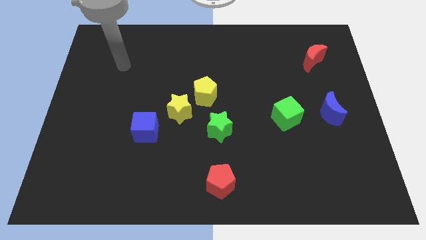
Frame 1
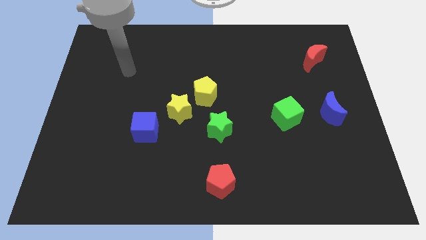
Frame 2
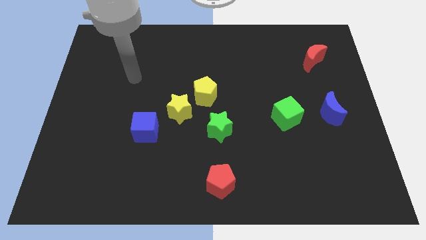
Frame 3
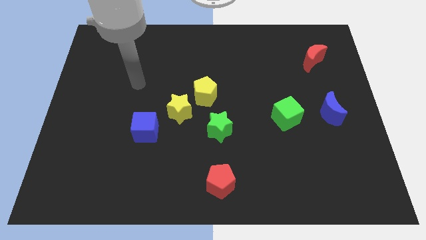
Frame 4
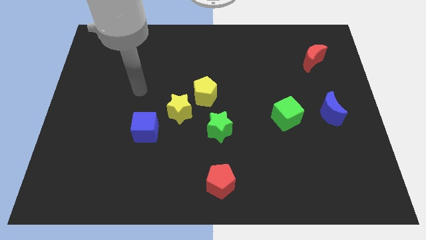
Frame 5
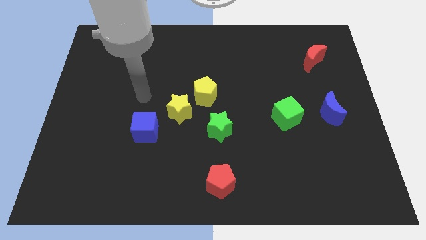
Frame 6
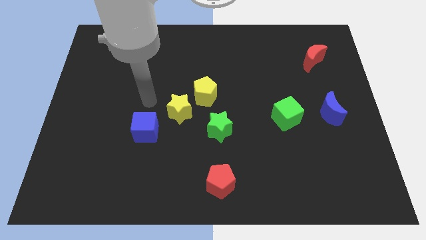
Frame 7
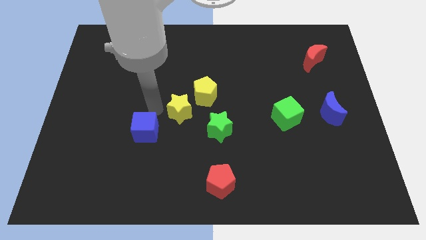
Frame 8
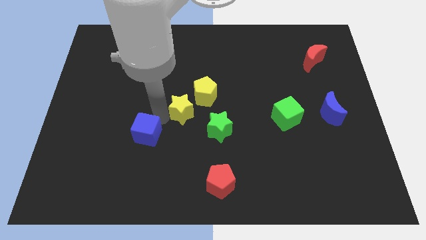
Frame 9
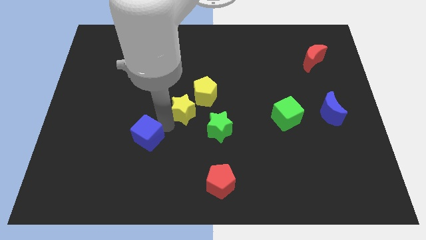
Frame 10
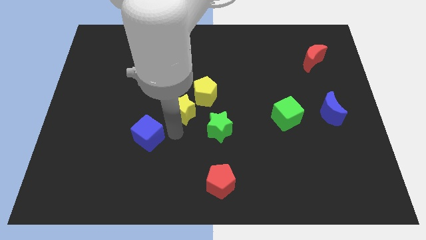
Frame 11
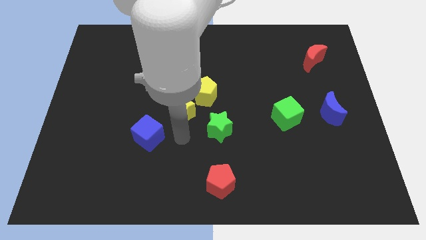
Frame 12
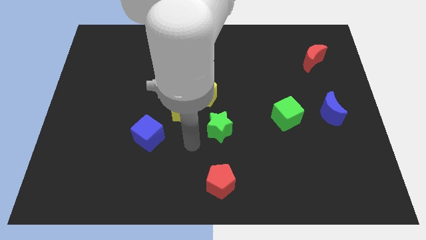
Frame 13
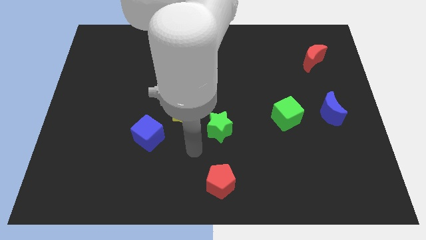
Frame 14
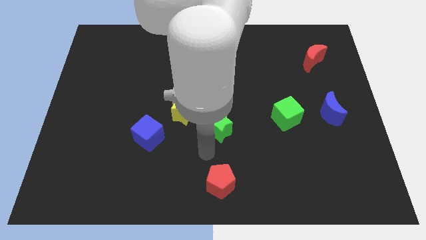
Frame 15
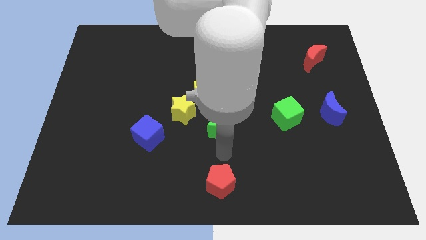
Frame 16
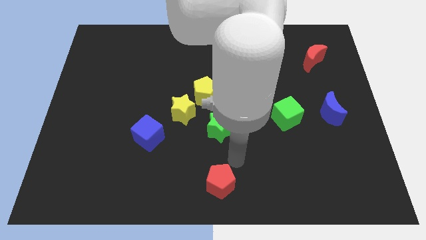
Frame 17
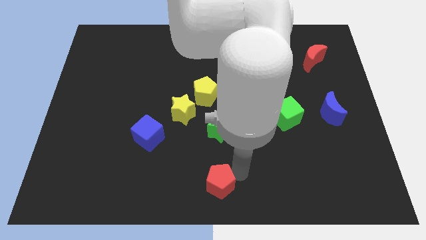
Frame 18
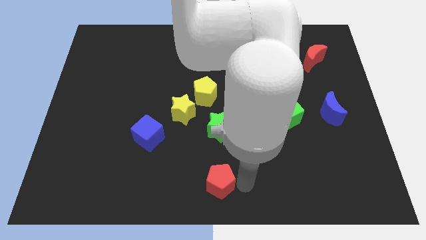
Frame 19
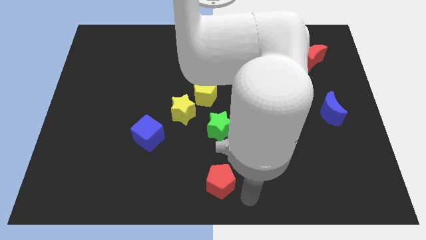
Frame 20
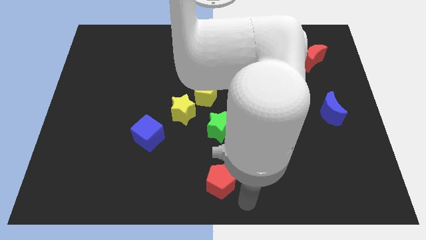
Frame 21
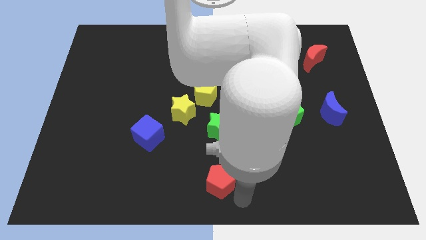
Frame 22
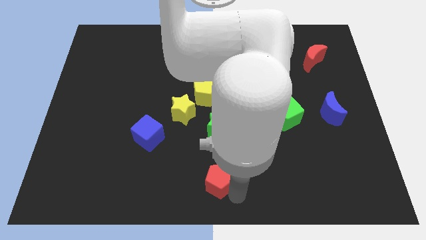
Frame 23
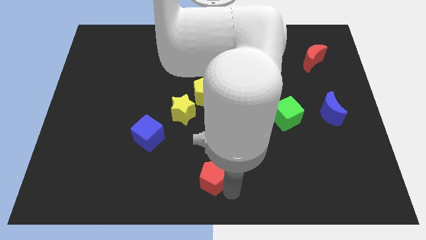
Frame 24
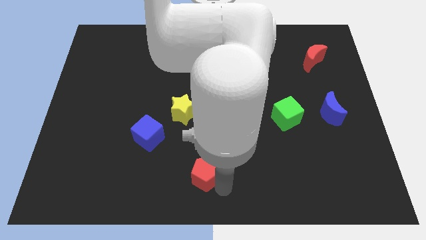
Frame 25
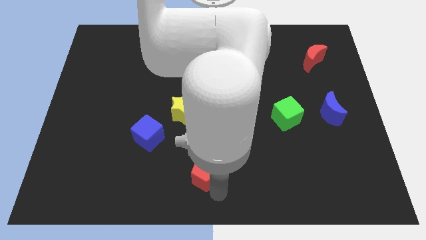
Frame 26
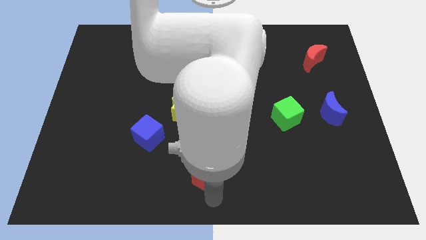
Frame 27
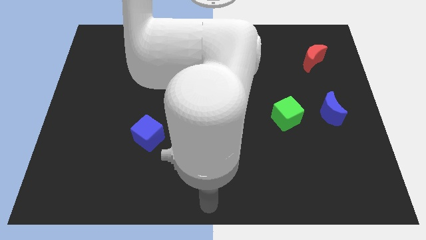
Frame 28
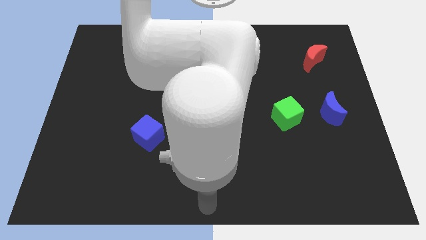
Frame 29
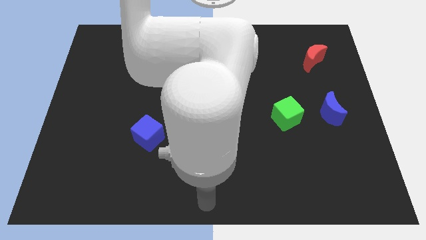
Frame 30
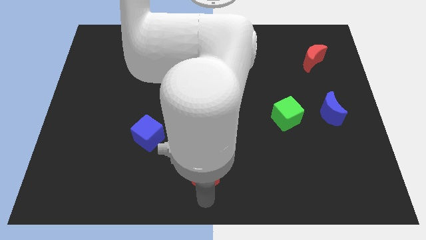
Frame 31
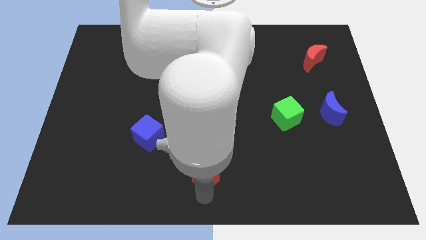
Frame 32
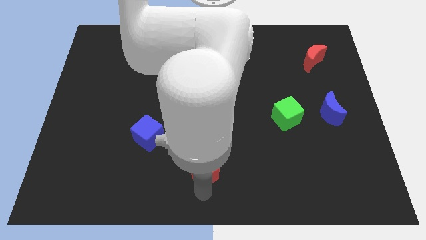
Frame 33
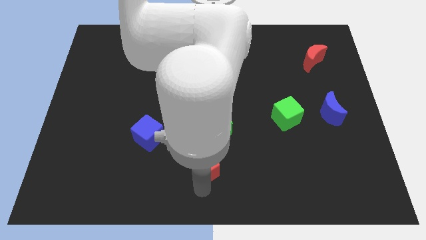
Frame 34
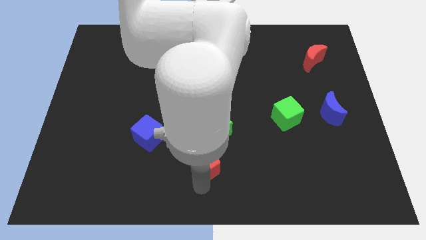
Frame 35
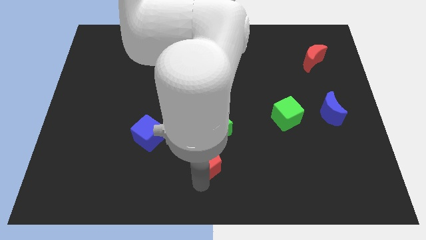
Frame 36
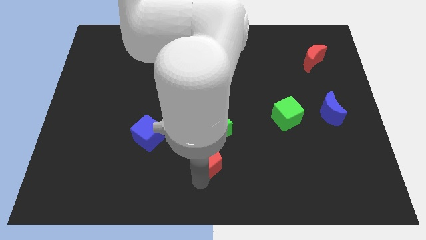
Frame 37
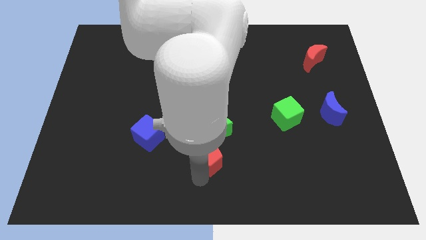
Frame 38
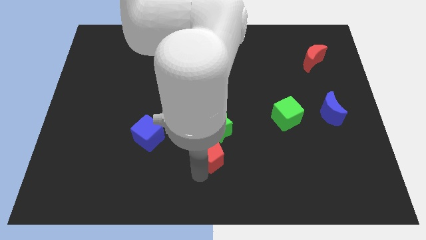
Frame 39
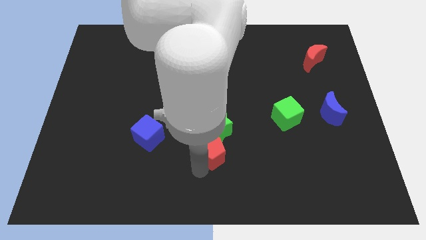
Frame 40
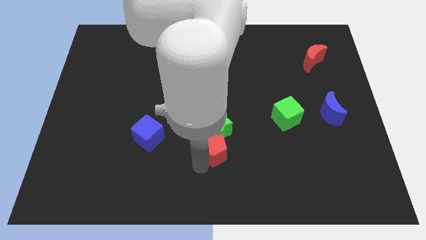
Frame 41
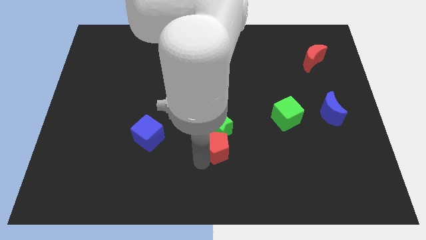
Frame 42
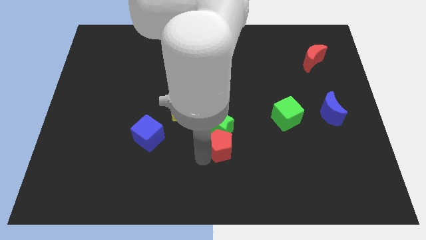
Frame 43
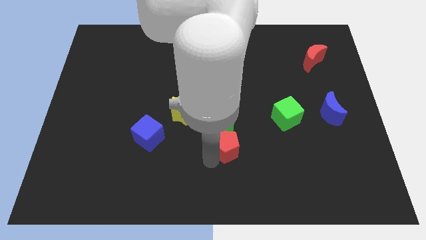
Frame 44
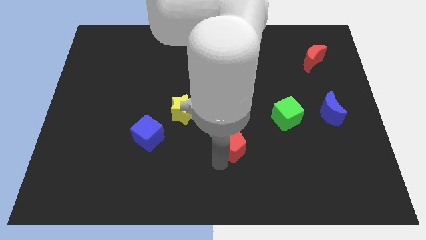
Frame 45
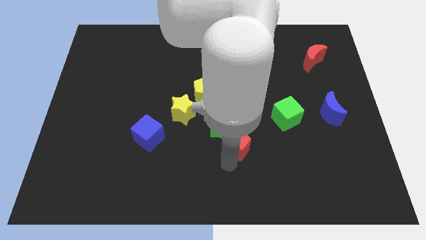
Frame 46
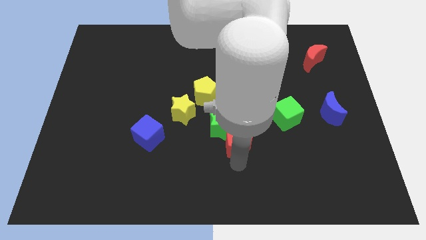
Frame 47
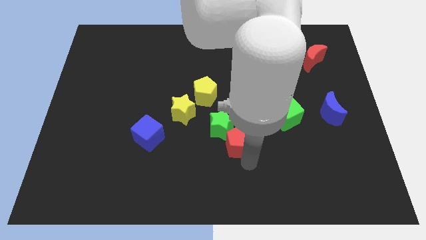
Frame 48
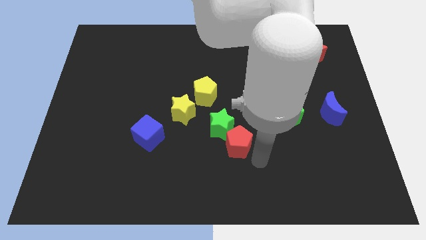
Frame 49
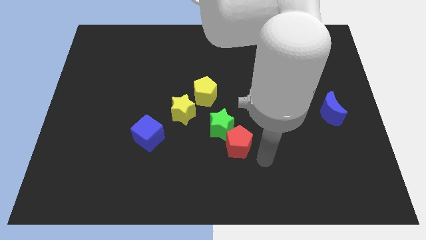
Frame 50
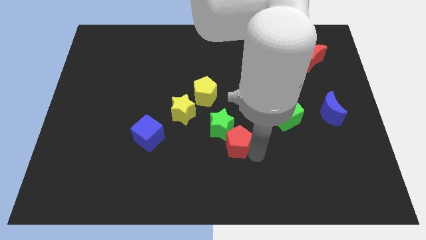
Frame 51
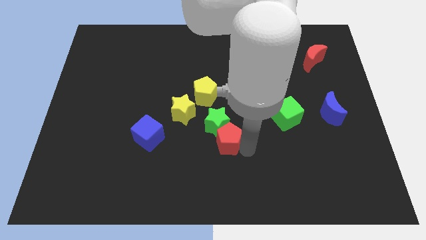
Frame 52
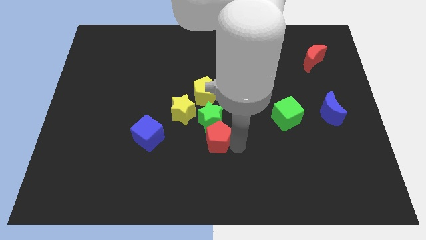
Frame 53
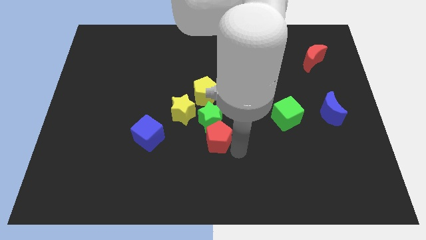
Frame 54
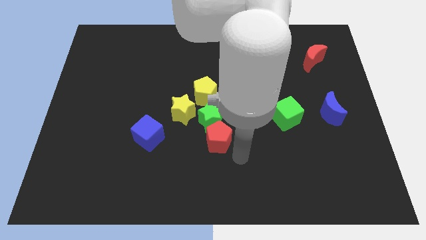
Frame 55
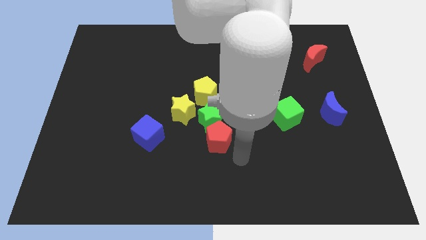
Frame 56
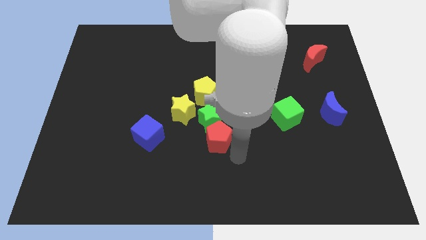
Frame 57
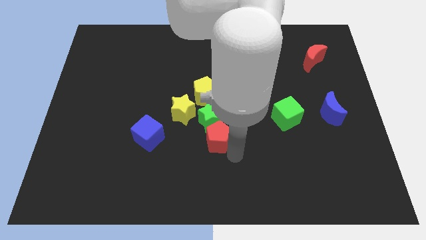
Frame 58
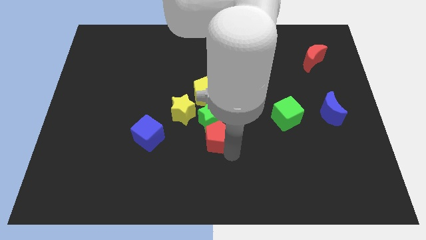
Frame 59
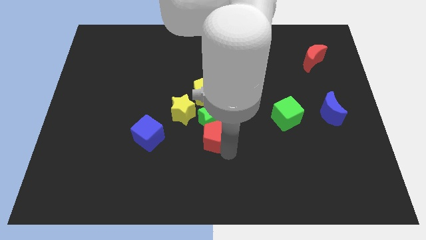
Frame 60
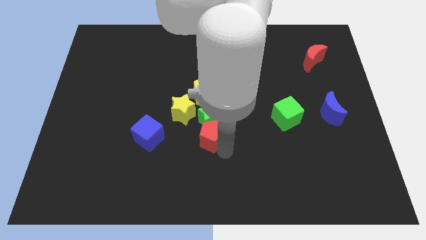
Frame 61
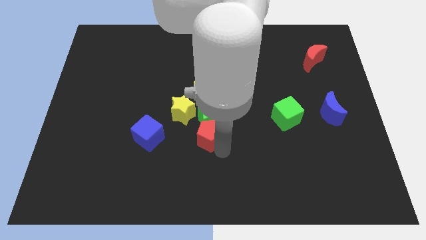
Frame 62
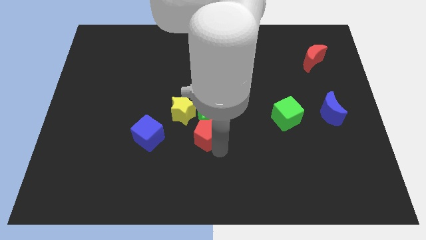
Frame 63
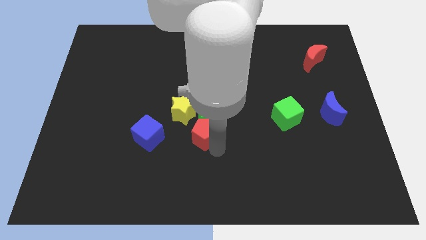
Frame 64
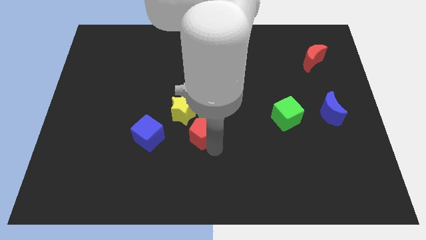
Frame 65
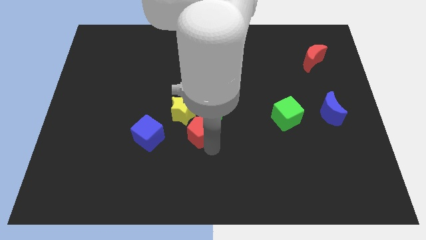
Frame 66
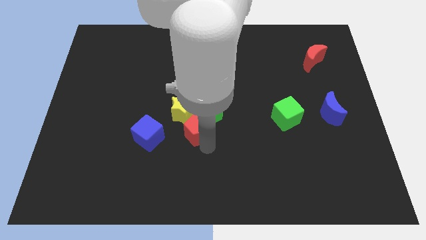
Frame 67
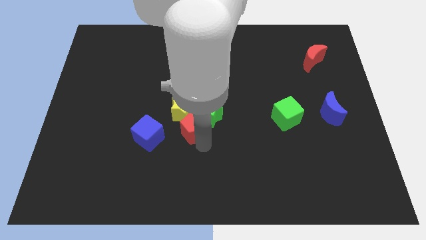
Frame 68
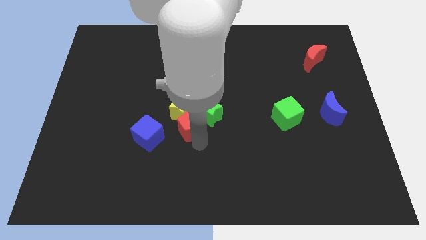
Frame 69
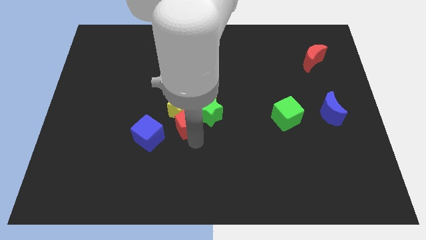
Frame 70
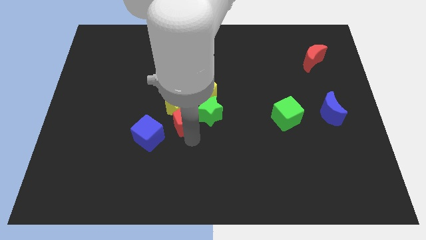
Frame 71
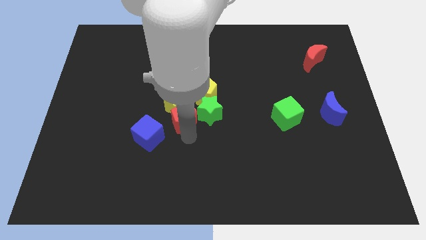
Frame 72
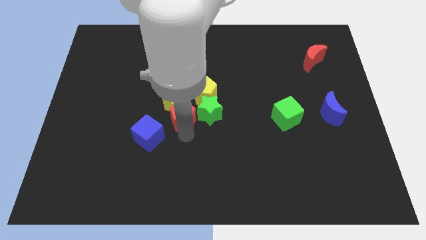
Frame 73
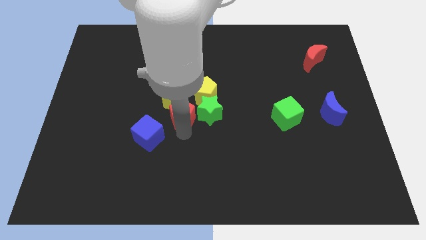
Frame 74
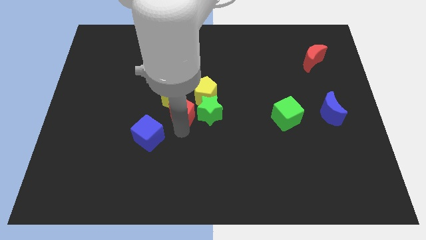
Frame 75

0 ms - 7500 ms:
push the red pentagon to the top left of the green star
